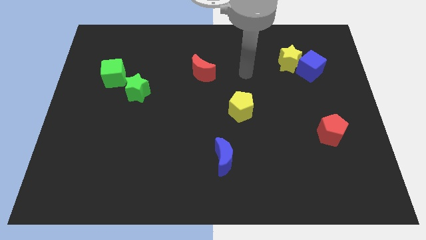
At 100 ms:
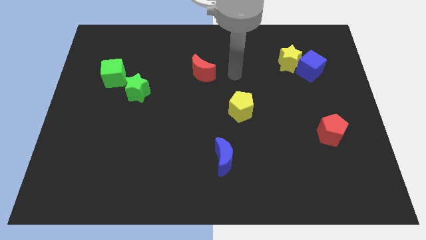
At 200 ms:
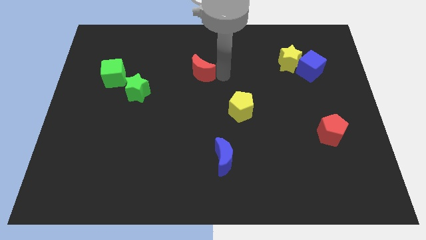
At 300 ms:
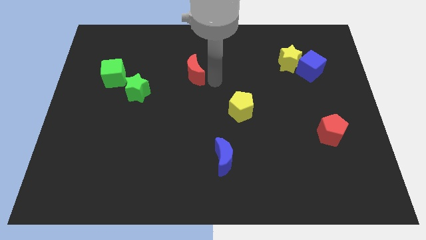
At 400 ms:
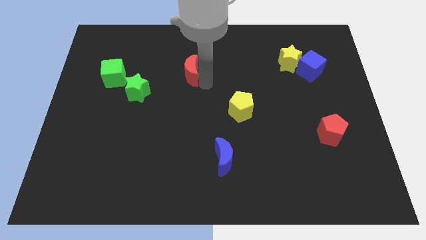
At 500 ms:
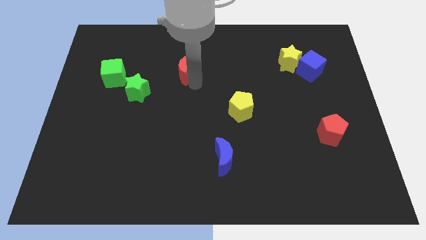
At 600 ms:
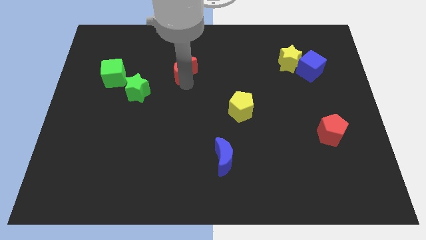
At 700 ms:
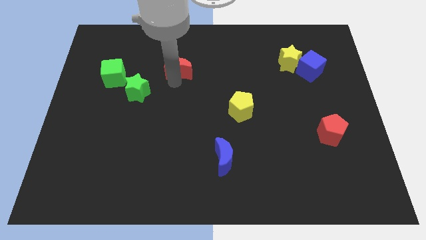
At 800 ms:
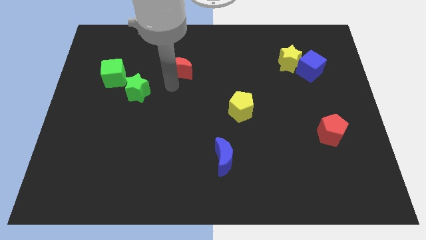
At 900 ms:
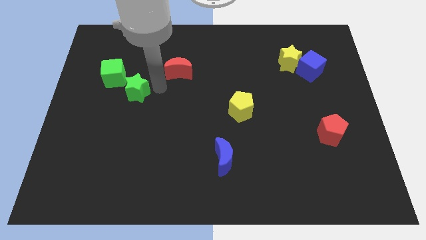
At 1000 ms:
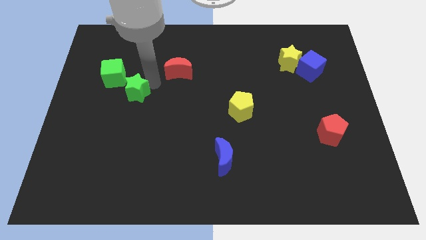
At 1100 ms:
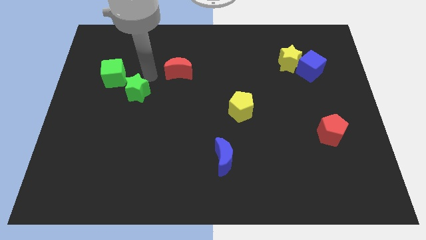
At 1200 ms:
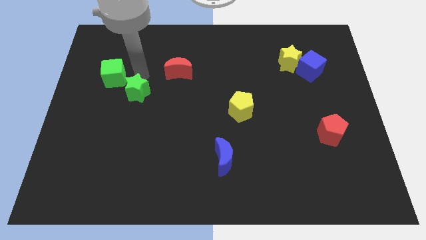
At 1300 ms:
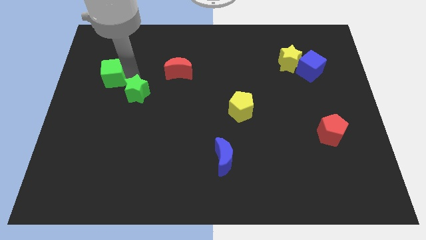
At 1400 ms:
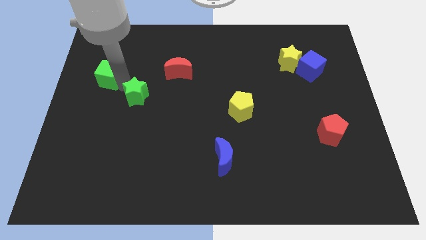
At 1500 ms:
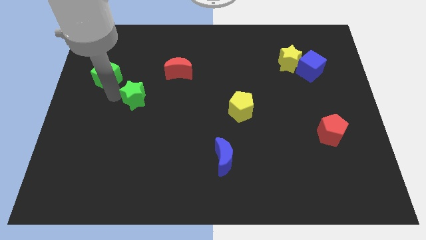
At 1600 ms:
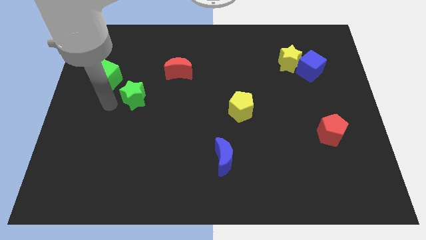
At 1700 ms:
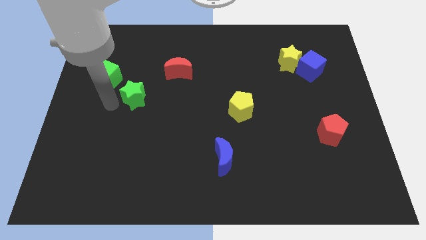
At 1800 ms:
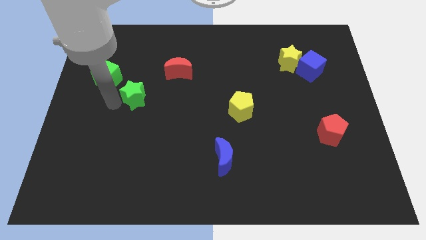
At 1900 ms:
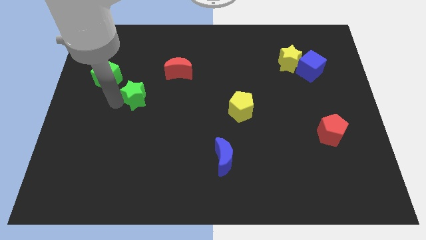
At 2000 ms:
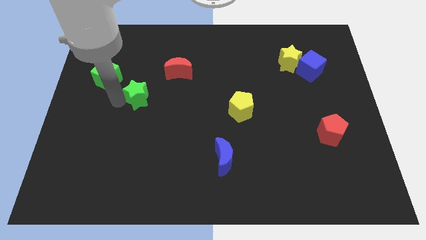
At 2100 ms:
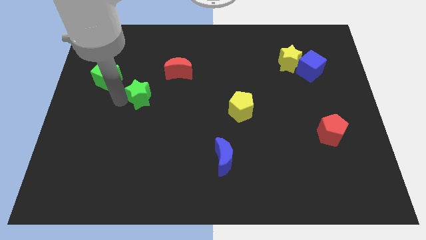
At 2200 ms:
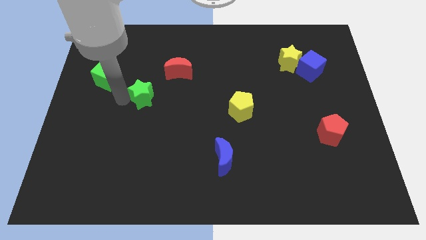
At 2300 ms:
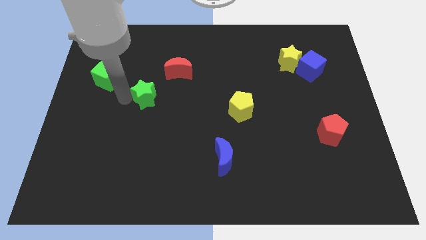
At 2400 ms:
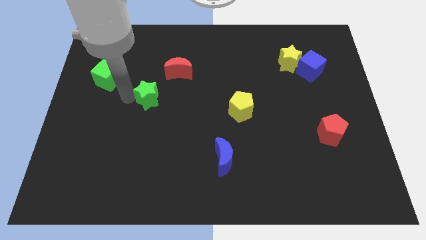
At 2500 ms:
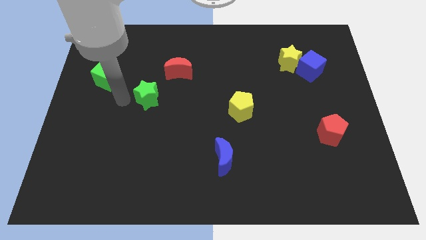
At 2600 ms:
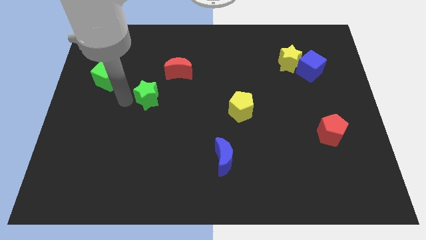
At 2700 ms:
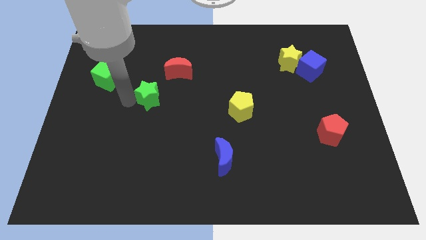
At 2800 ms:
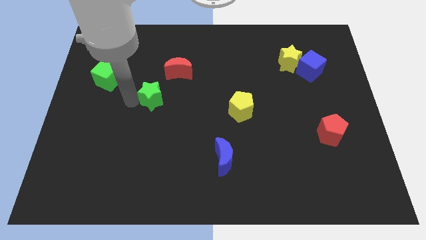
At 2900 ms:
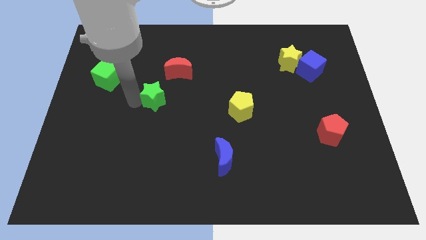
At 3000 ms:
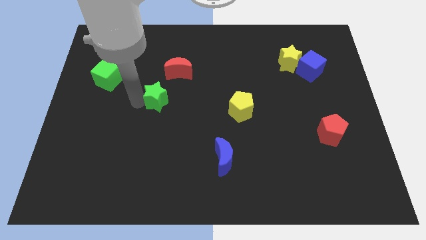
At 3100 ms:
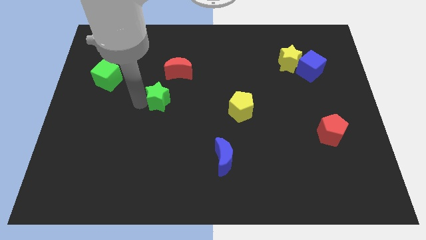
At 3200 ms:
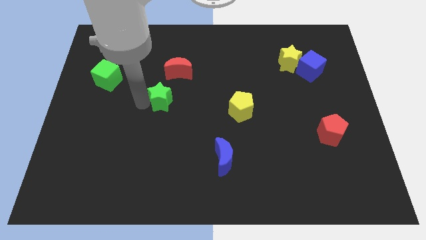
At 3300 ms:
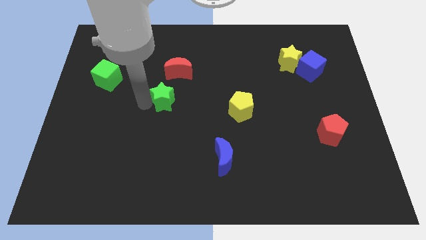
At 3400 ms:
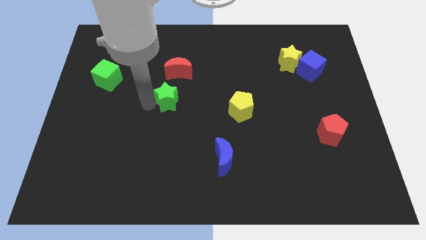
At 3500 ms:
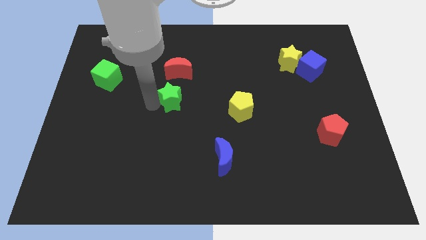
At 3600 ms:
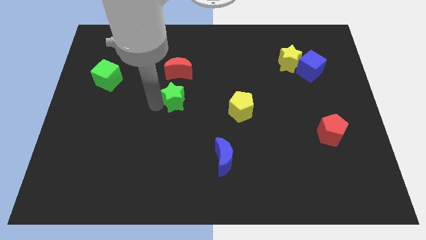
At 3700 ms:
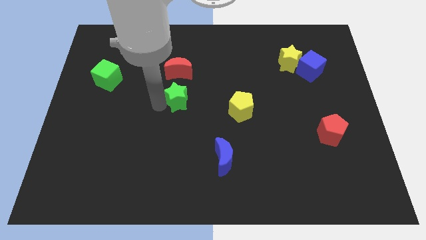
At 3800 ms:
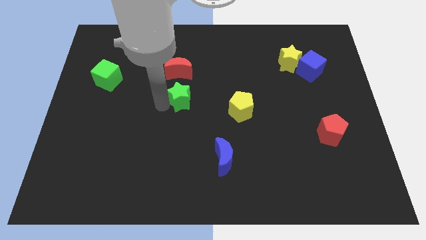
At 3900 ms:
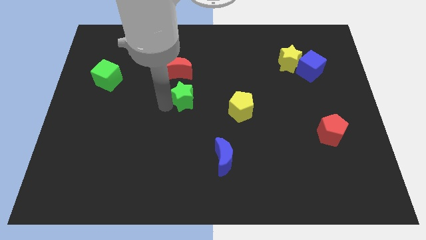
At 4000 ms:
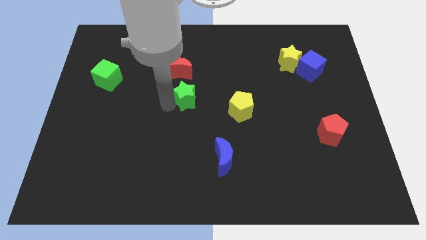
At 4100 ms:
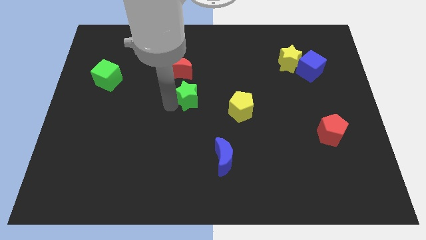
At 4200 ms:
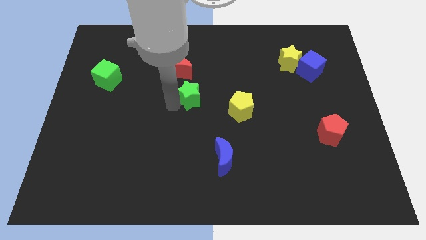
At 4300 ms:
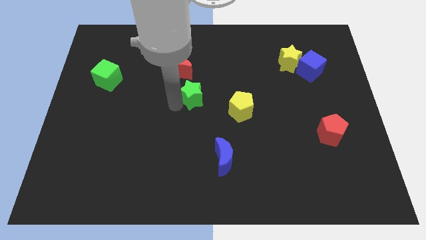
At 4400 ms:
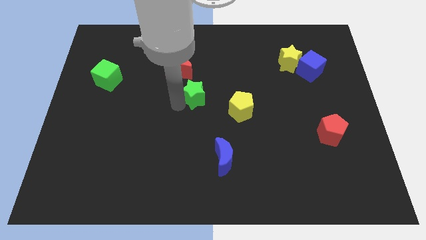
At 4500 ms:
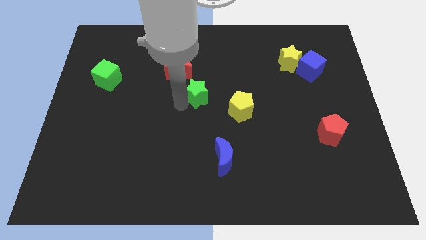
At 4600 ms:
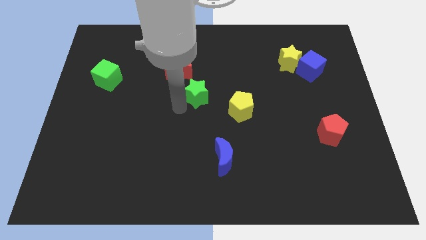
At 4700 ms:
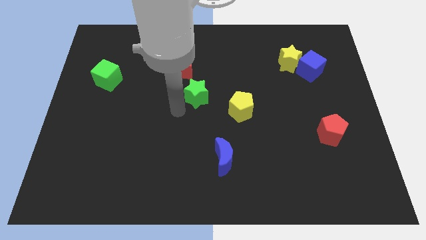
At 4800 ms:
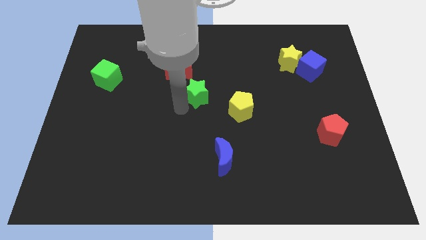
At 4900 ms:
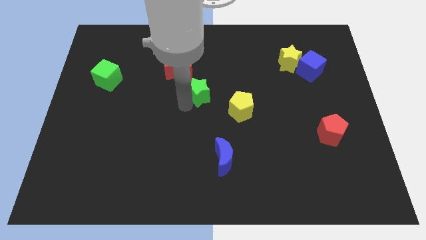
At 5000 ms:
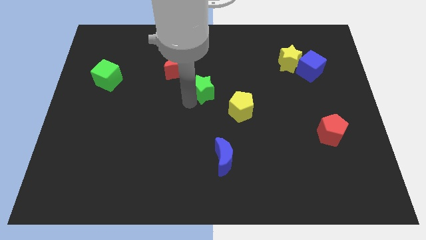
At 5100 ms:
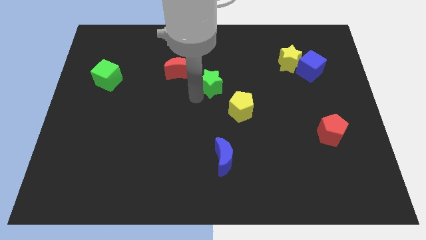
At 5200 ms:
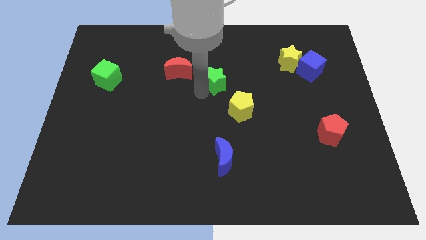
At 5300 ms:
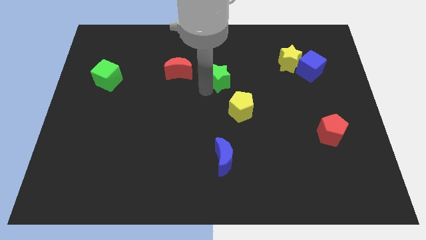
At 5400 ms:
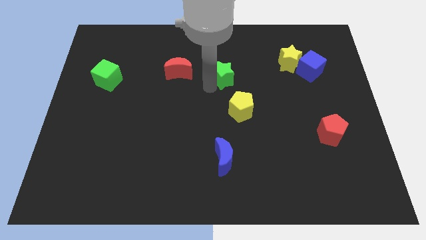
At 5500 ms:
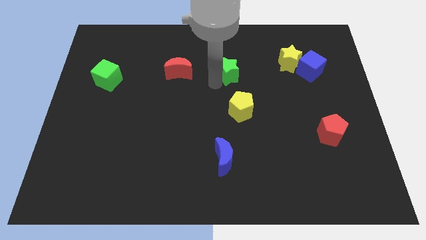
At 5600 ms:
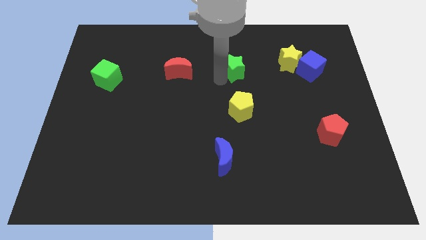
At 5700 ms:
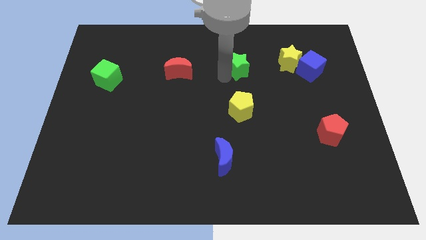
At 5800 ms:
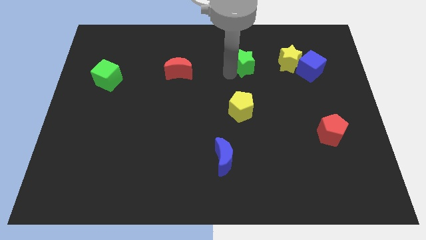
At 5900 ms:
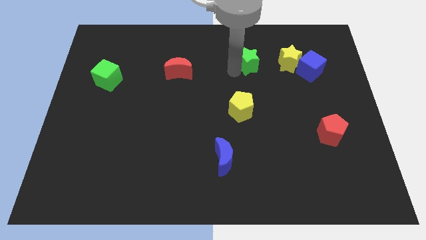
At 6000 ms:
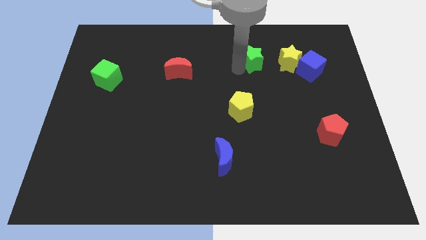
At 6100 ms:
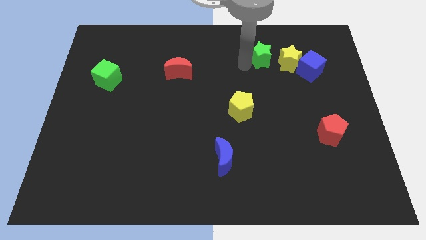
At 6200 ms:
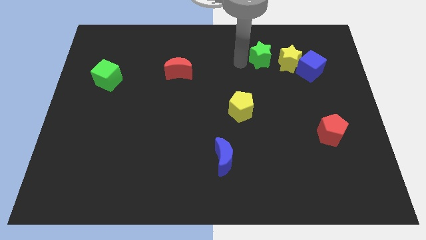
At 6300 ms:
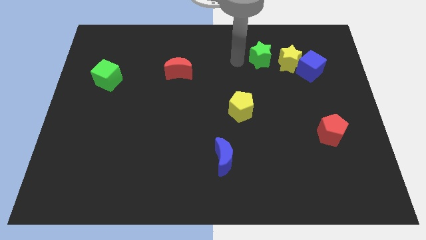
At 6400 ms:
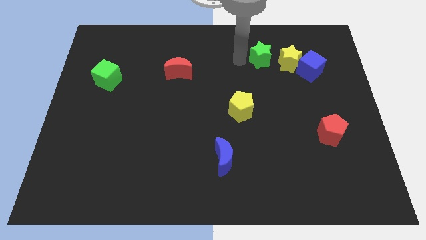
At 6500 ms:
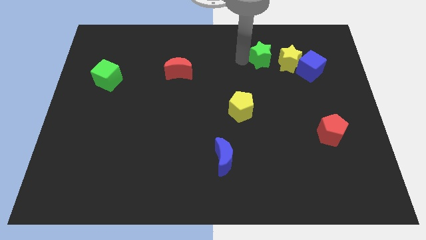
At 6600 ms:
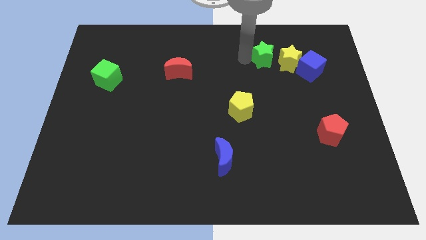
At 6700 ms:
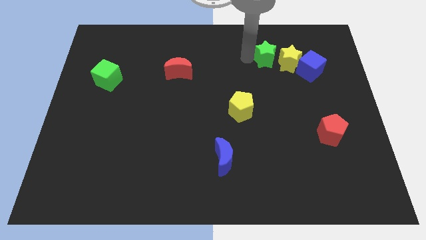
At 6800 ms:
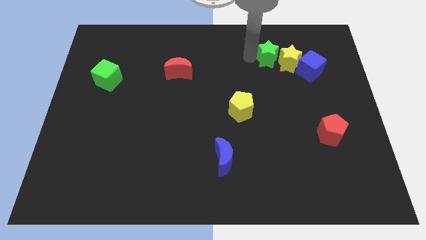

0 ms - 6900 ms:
push the green star to the top left side of the blue cube

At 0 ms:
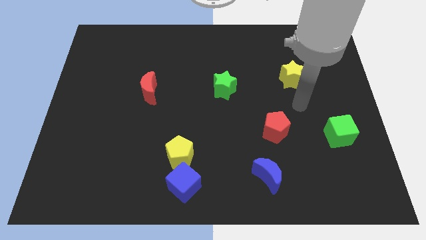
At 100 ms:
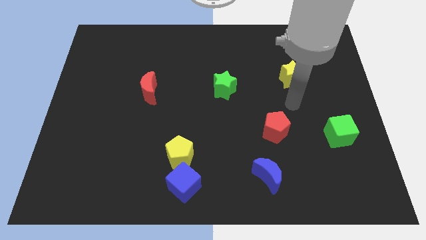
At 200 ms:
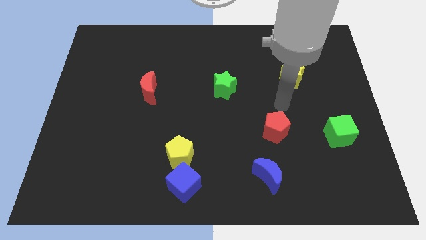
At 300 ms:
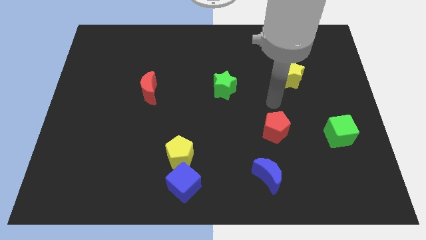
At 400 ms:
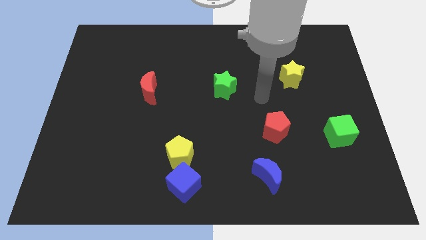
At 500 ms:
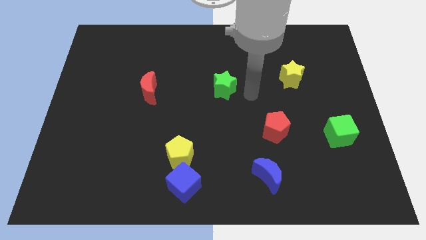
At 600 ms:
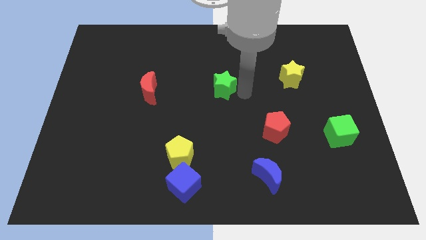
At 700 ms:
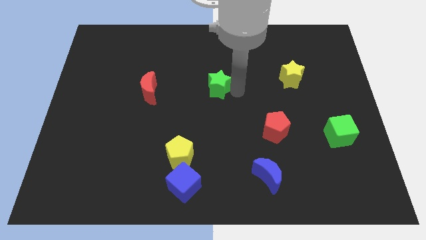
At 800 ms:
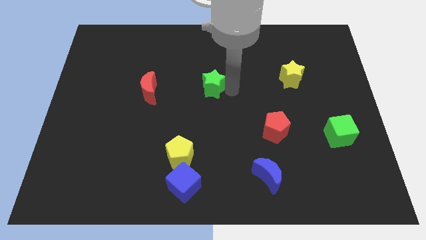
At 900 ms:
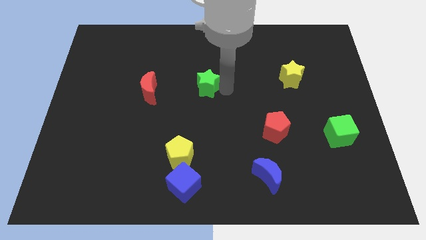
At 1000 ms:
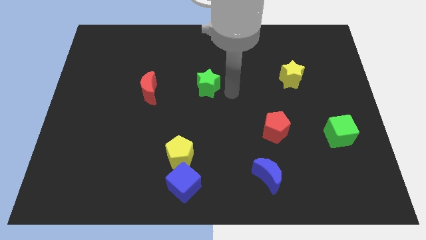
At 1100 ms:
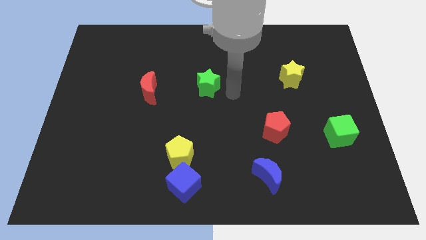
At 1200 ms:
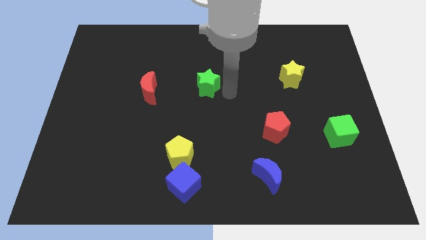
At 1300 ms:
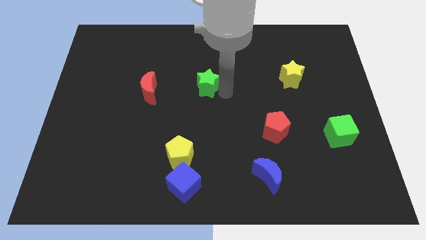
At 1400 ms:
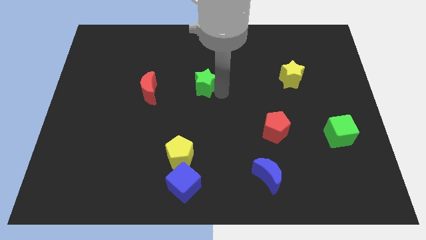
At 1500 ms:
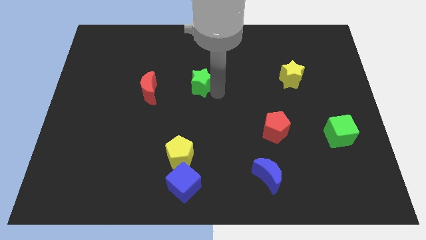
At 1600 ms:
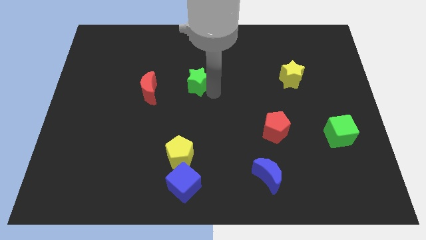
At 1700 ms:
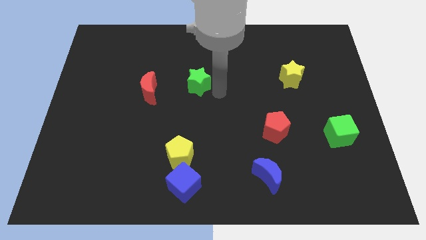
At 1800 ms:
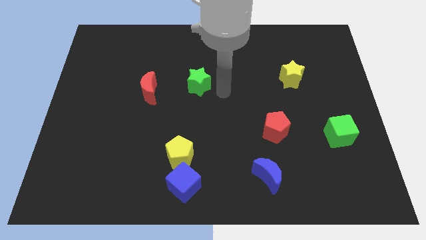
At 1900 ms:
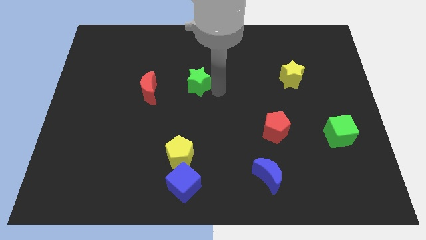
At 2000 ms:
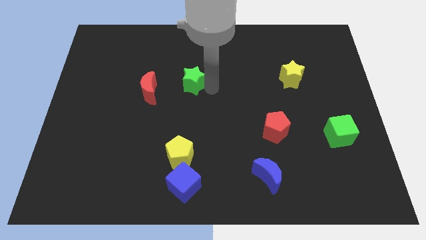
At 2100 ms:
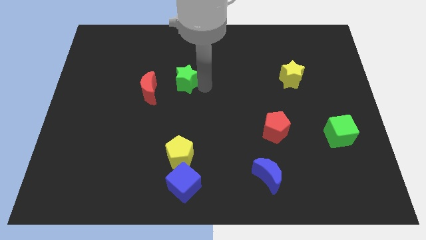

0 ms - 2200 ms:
slide the green star diagonally up and to the right of the red moon
